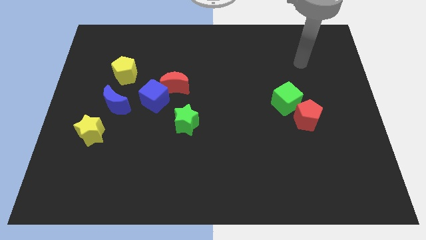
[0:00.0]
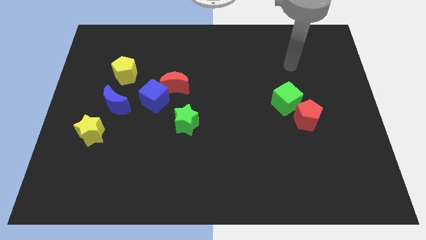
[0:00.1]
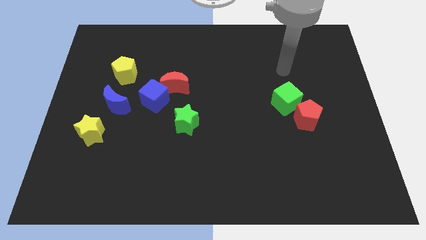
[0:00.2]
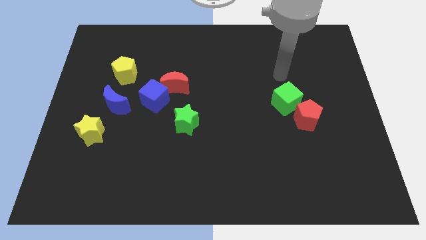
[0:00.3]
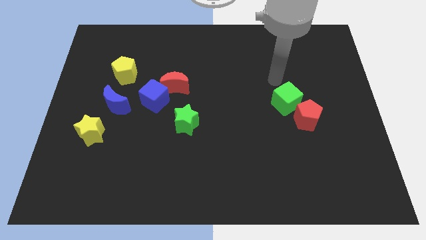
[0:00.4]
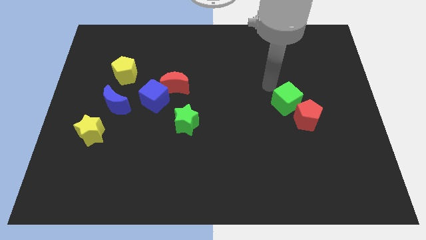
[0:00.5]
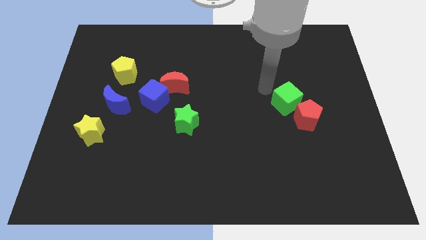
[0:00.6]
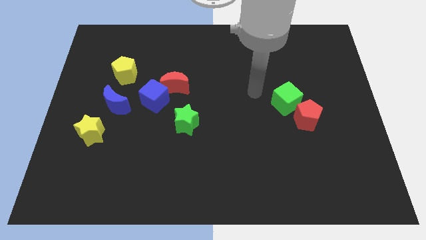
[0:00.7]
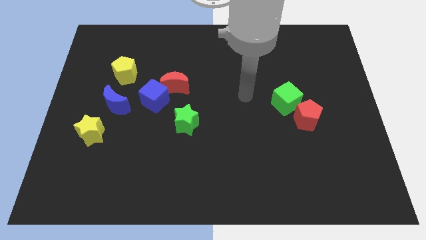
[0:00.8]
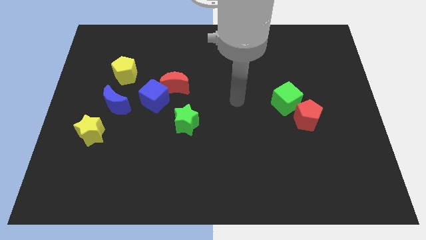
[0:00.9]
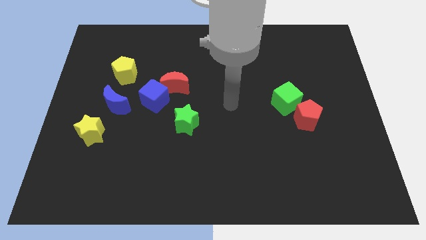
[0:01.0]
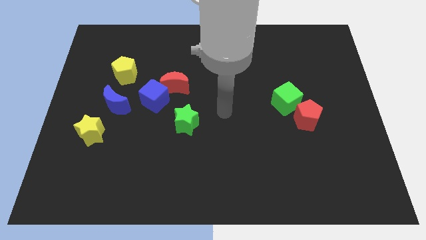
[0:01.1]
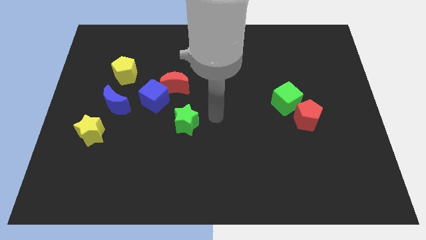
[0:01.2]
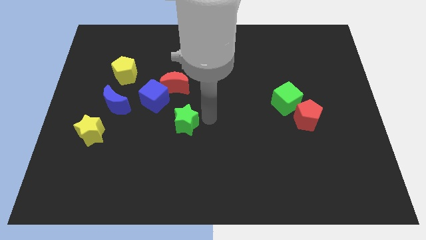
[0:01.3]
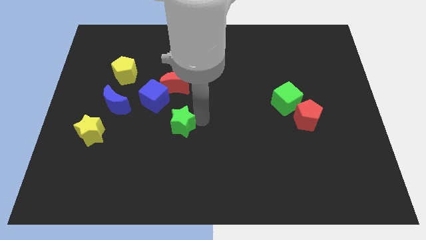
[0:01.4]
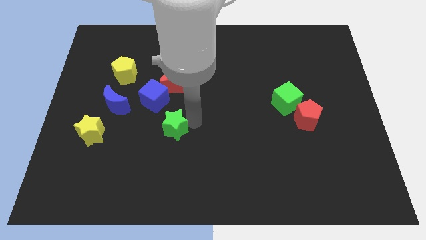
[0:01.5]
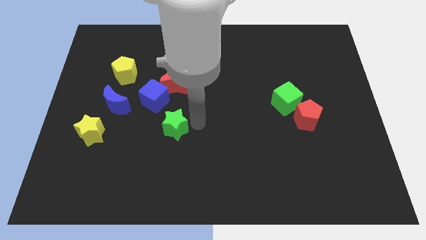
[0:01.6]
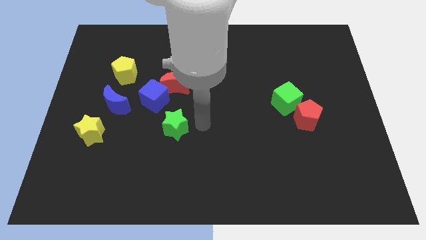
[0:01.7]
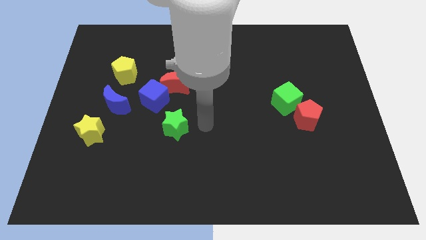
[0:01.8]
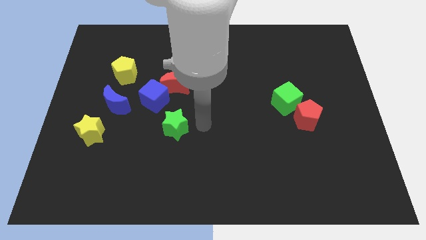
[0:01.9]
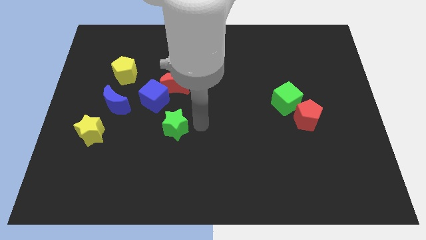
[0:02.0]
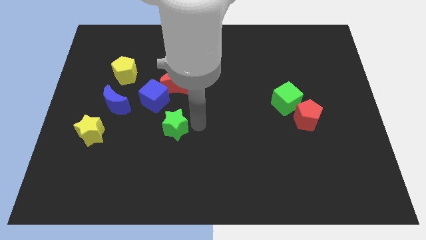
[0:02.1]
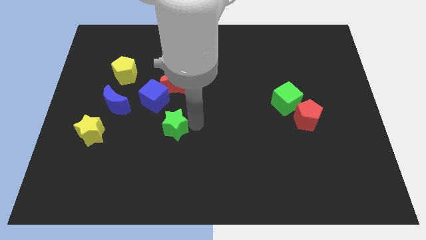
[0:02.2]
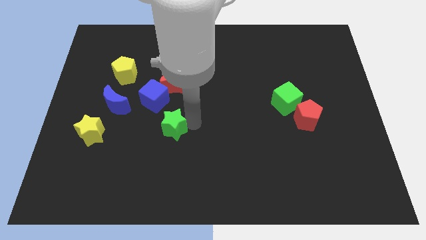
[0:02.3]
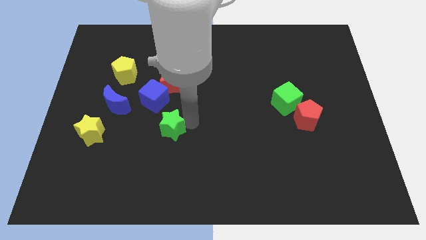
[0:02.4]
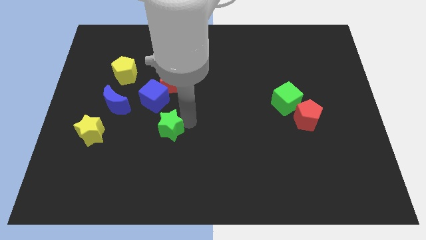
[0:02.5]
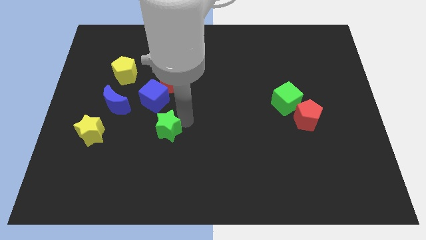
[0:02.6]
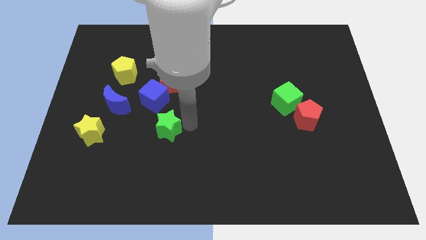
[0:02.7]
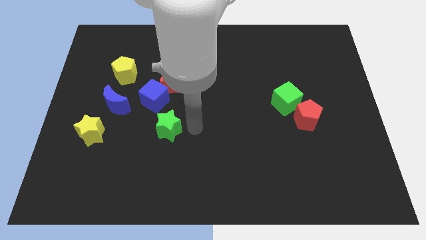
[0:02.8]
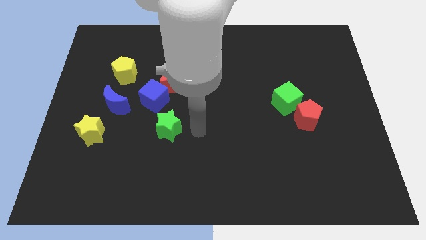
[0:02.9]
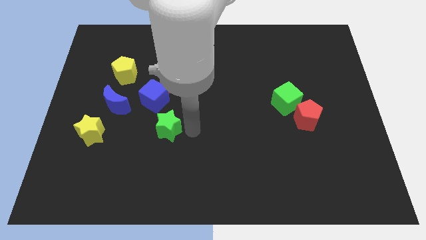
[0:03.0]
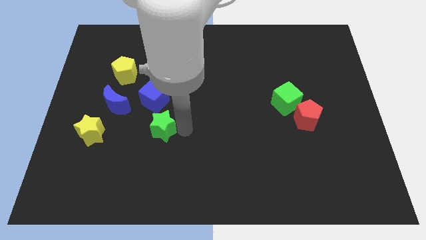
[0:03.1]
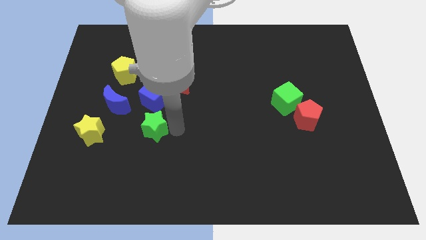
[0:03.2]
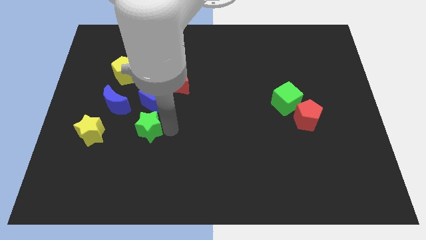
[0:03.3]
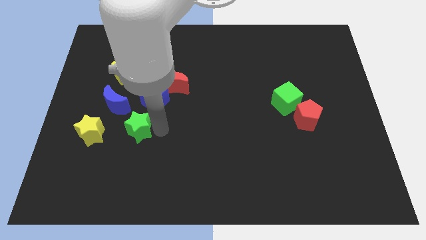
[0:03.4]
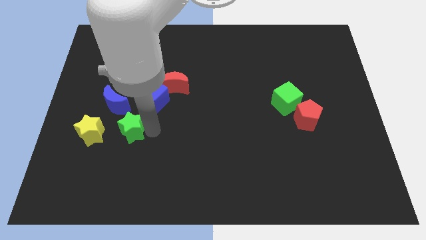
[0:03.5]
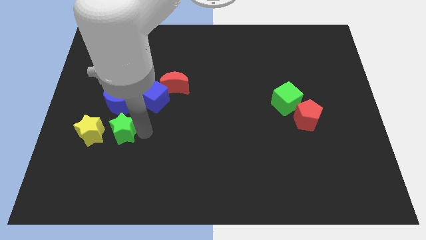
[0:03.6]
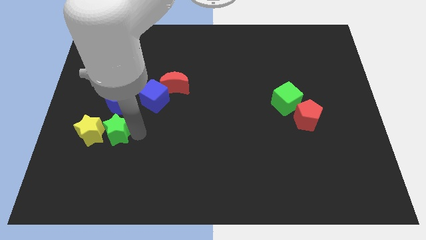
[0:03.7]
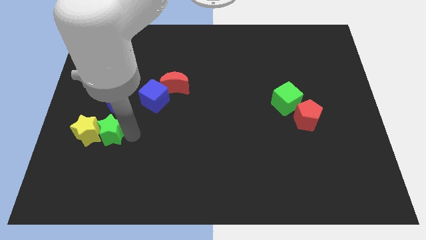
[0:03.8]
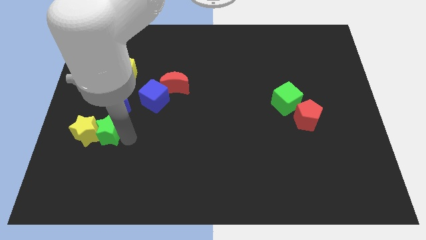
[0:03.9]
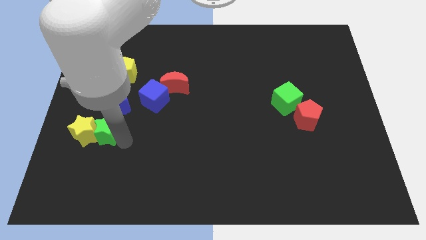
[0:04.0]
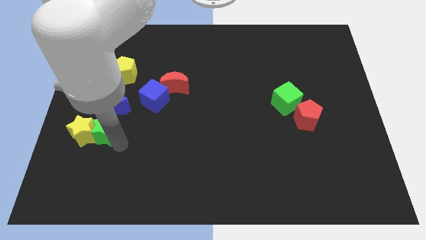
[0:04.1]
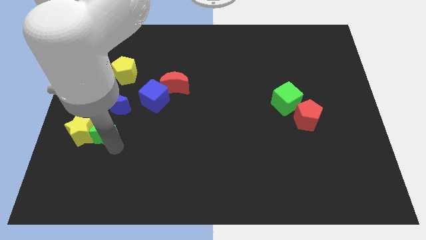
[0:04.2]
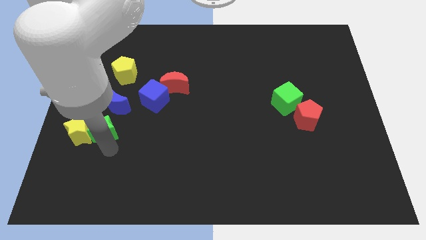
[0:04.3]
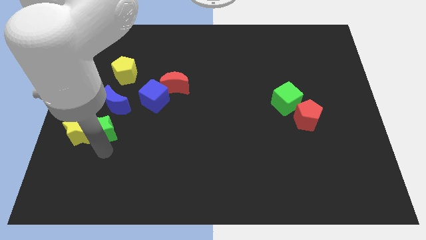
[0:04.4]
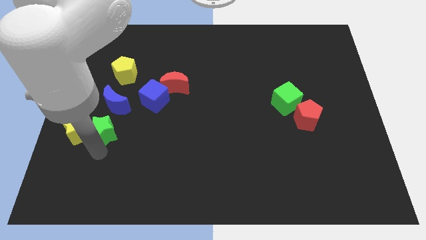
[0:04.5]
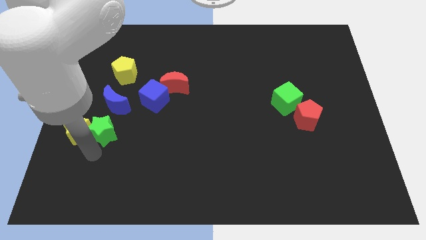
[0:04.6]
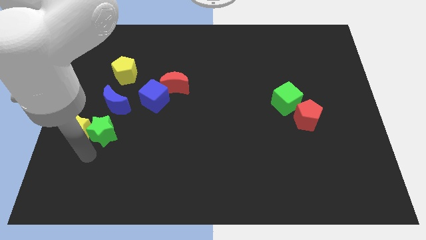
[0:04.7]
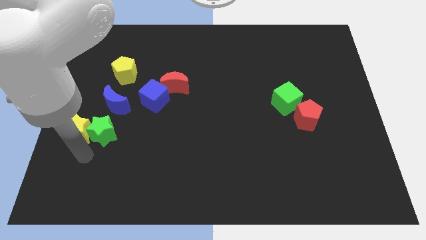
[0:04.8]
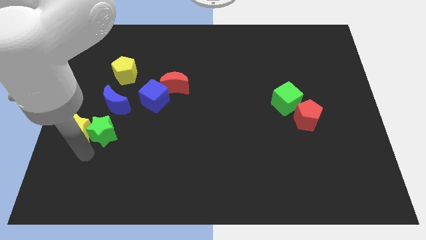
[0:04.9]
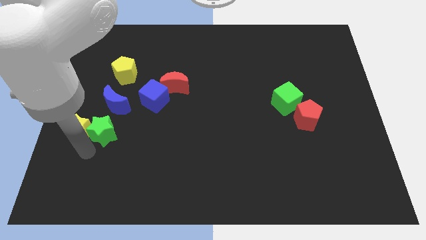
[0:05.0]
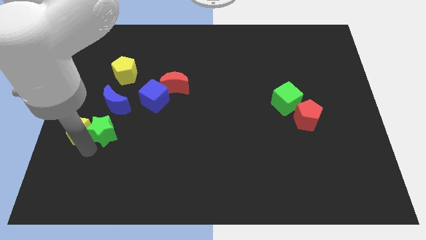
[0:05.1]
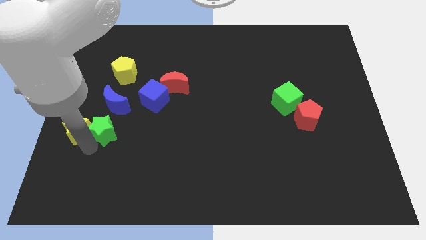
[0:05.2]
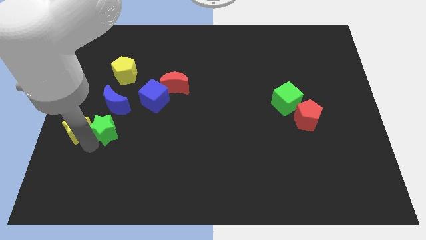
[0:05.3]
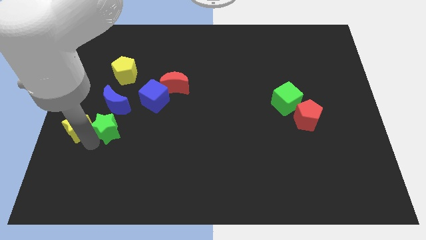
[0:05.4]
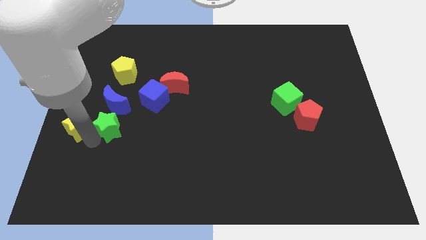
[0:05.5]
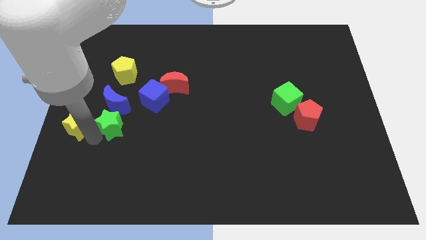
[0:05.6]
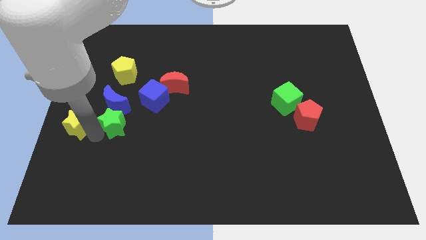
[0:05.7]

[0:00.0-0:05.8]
move the green star to the bottom side of the yellow pentagon

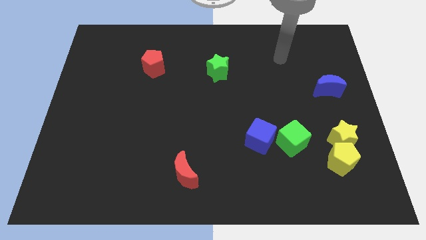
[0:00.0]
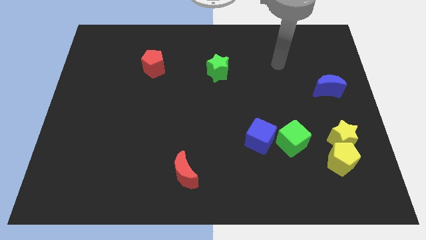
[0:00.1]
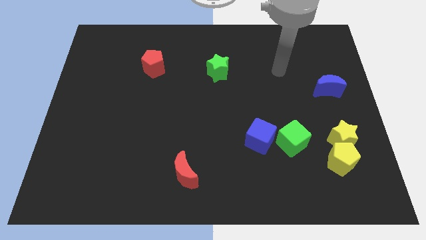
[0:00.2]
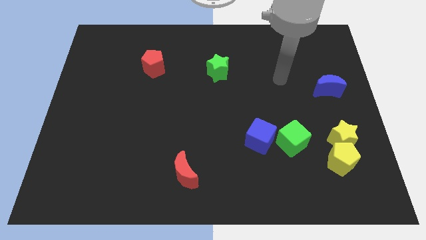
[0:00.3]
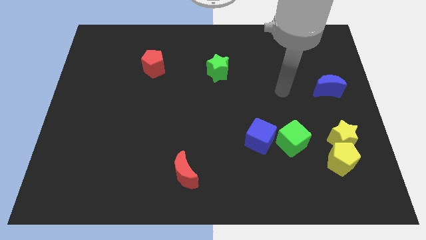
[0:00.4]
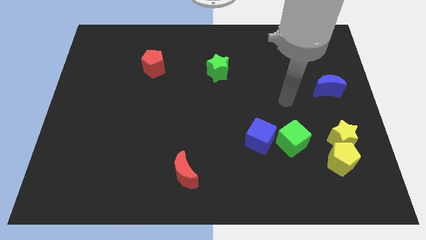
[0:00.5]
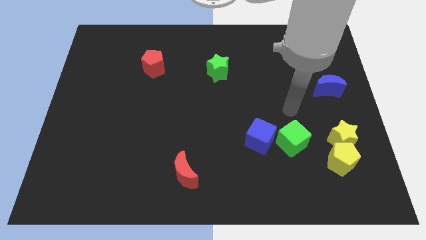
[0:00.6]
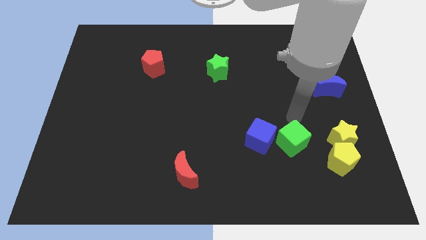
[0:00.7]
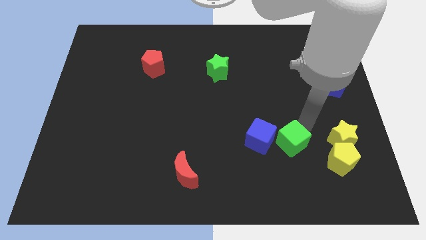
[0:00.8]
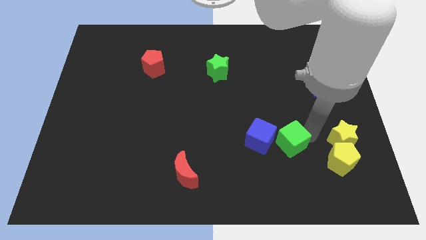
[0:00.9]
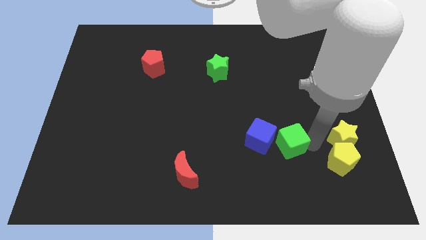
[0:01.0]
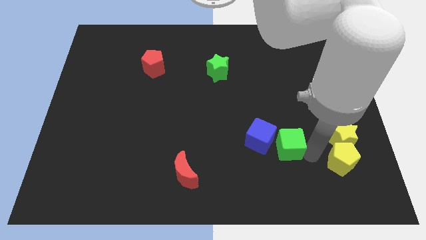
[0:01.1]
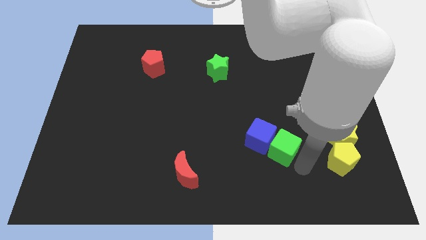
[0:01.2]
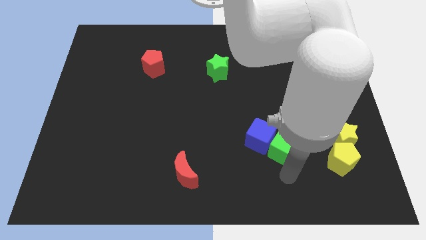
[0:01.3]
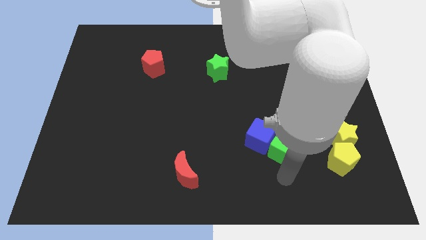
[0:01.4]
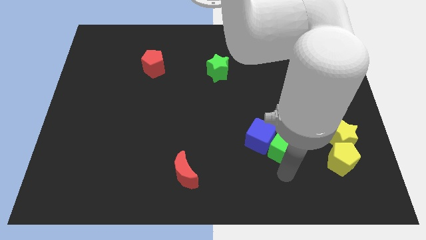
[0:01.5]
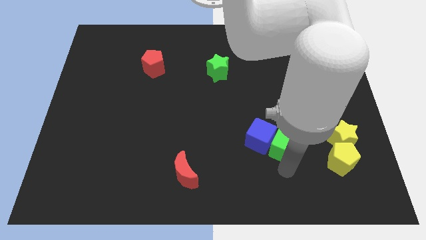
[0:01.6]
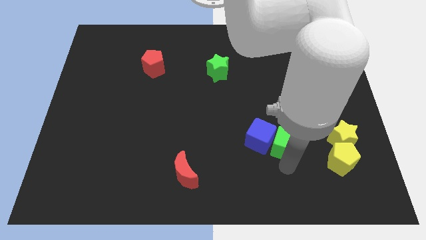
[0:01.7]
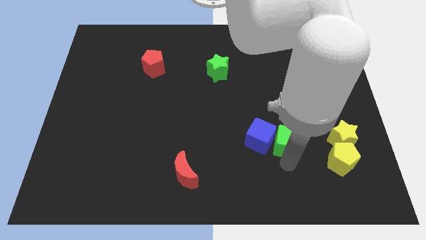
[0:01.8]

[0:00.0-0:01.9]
push the green cube to the top right side of the blue cube

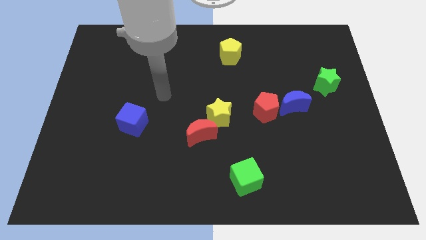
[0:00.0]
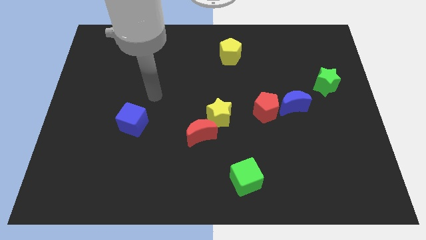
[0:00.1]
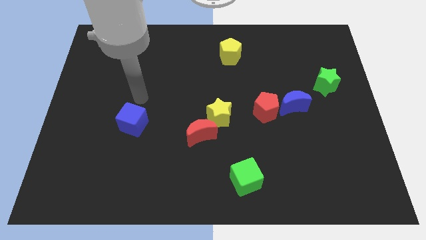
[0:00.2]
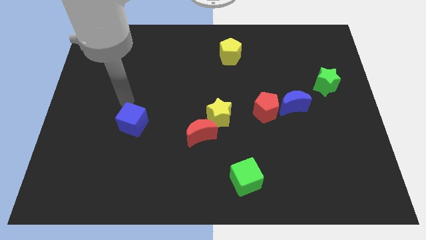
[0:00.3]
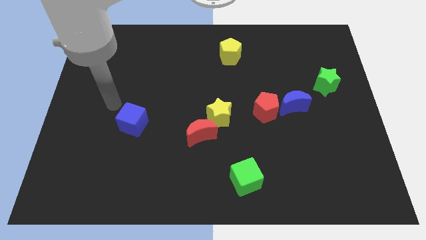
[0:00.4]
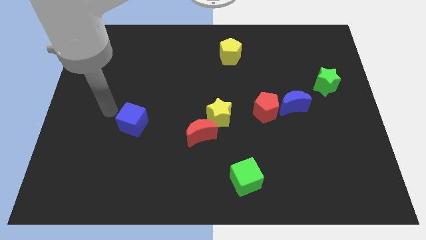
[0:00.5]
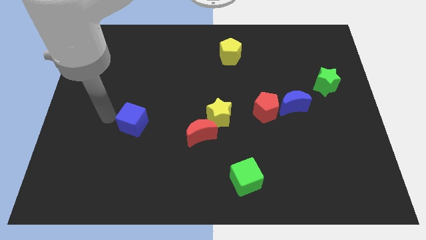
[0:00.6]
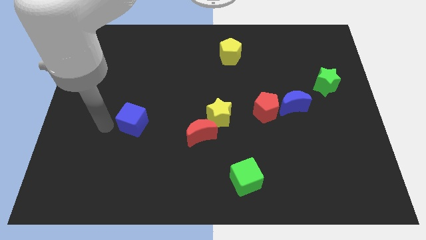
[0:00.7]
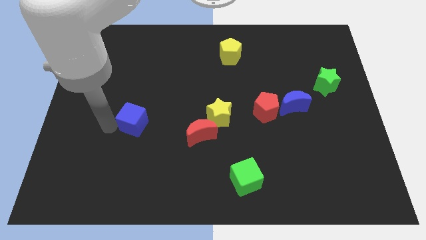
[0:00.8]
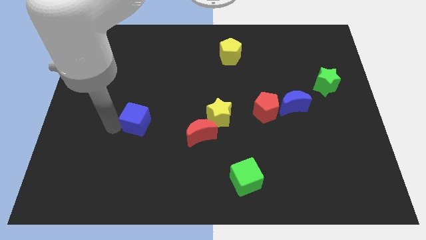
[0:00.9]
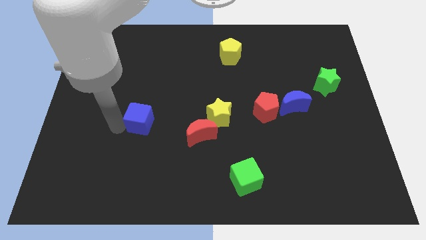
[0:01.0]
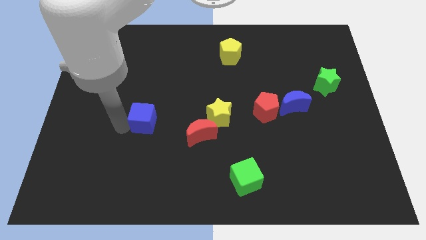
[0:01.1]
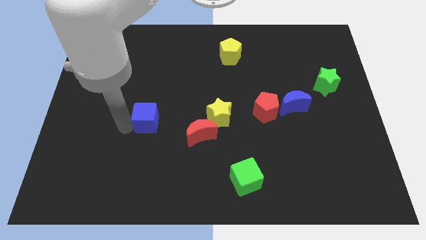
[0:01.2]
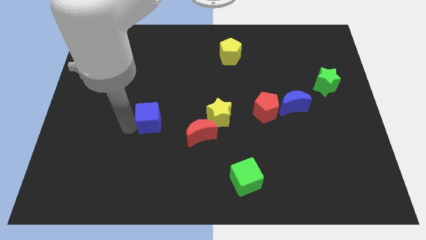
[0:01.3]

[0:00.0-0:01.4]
slide the blue cube left of the yellow star
